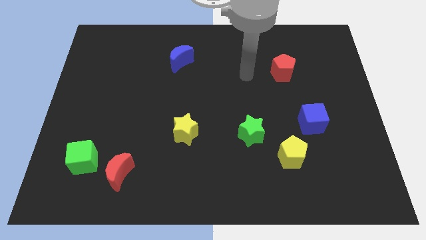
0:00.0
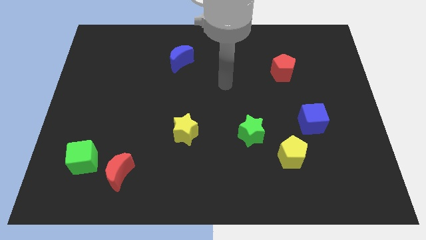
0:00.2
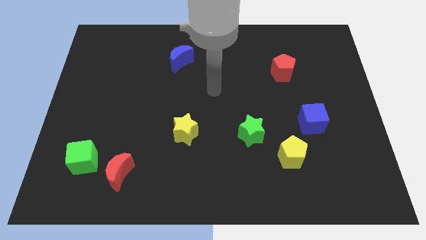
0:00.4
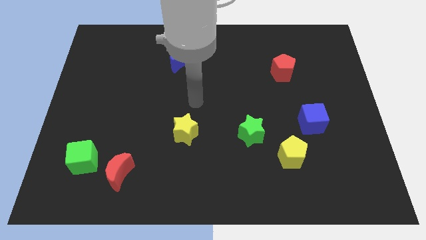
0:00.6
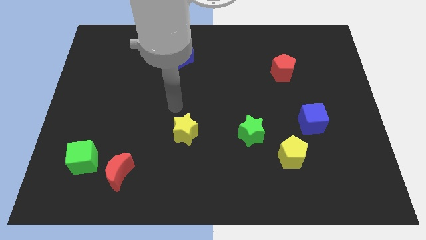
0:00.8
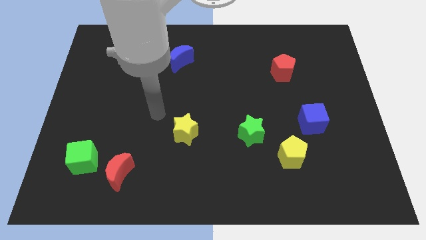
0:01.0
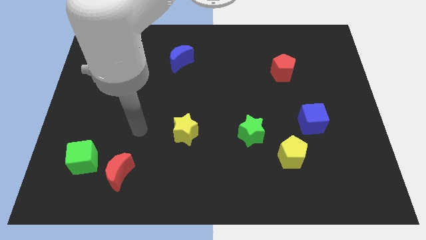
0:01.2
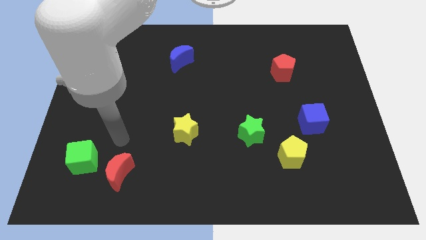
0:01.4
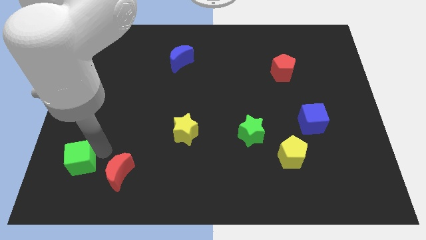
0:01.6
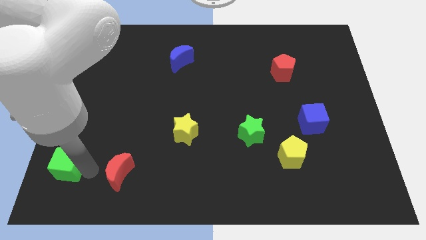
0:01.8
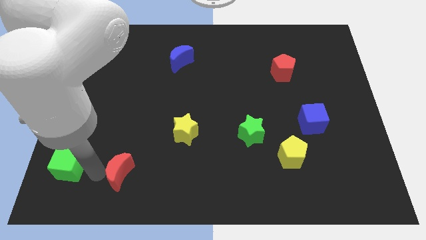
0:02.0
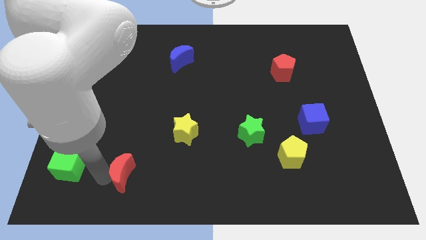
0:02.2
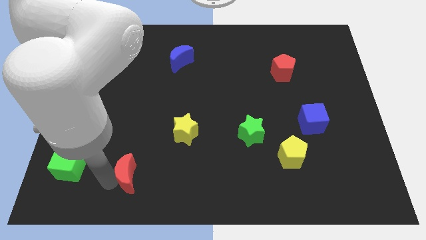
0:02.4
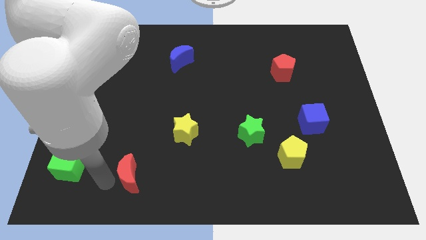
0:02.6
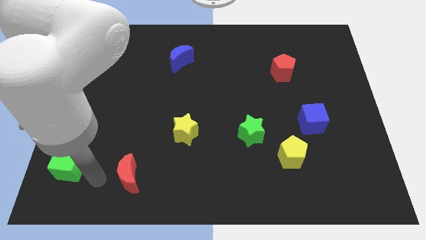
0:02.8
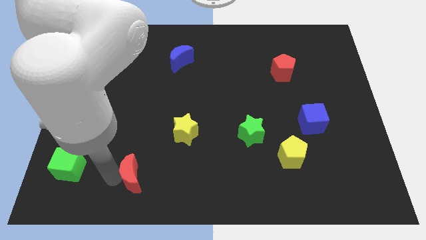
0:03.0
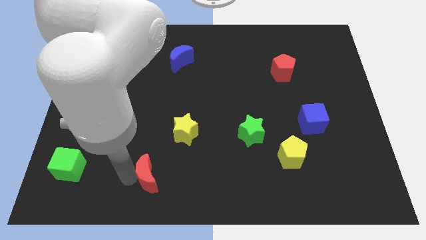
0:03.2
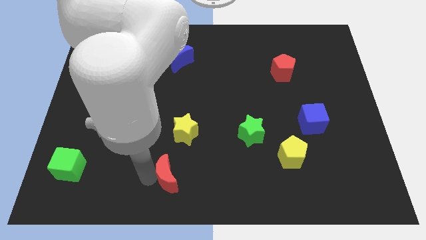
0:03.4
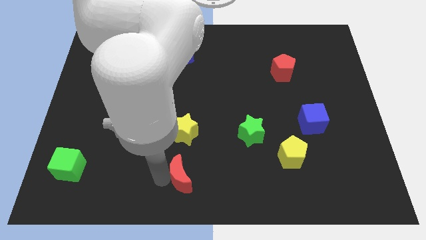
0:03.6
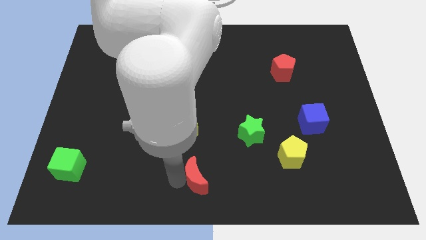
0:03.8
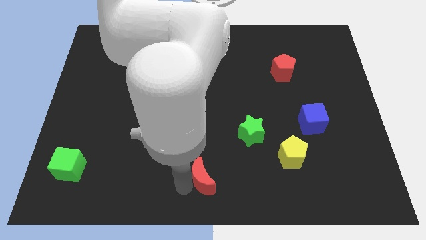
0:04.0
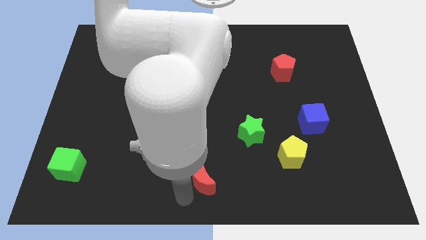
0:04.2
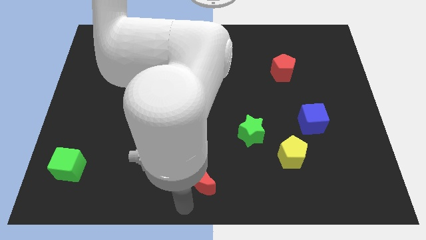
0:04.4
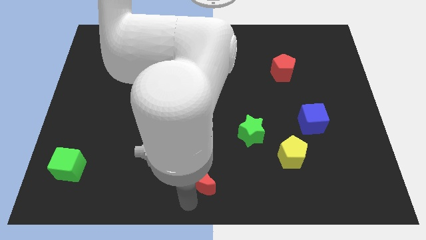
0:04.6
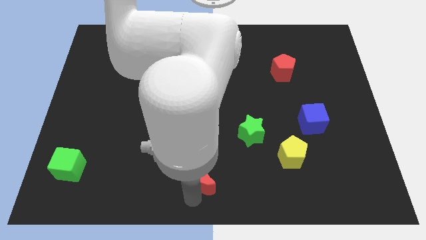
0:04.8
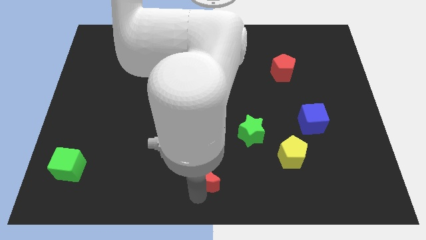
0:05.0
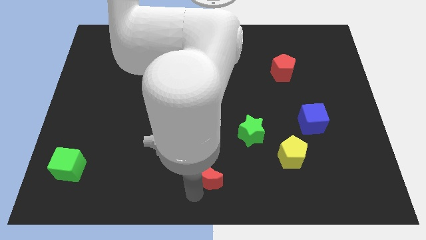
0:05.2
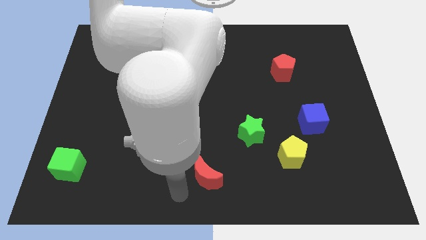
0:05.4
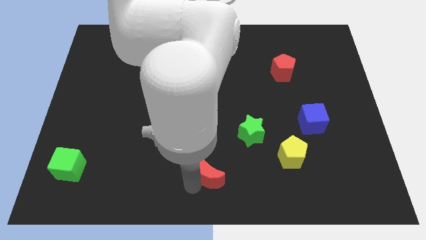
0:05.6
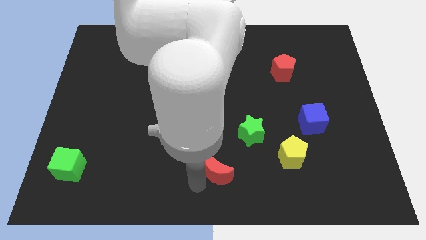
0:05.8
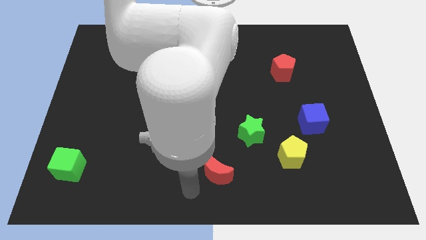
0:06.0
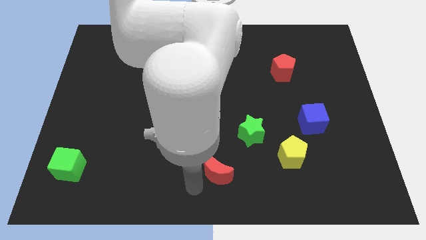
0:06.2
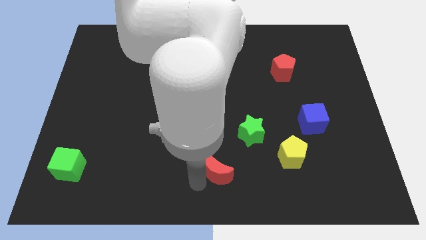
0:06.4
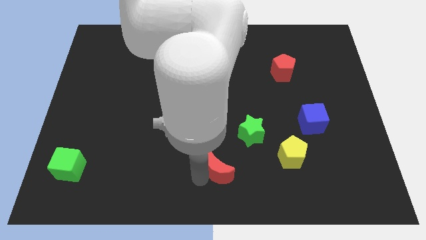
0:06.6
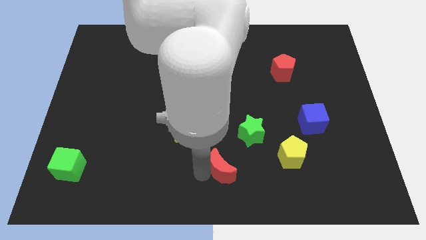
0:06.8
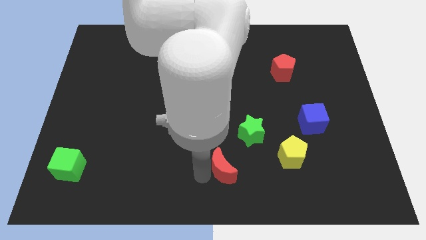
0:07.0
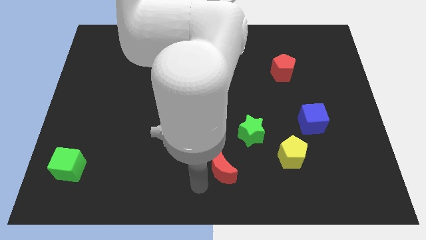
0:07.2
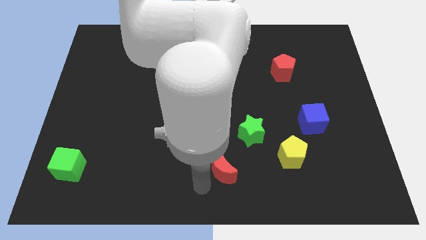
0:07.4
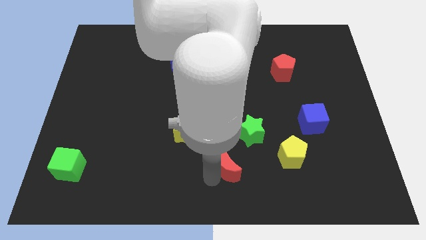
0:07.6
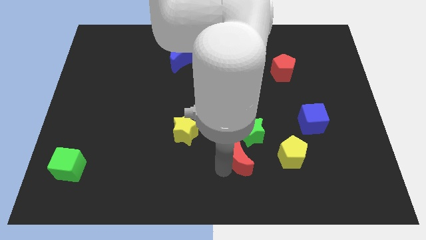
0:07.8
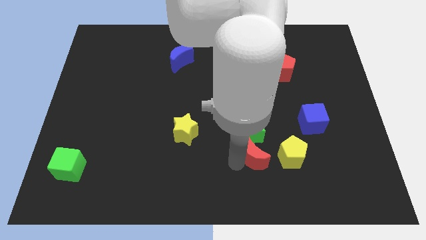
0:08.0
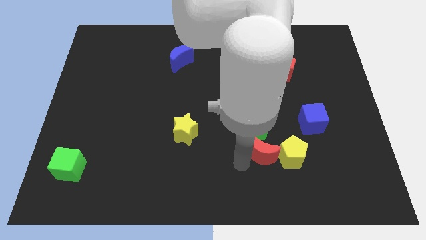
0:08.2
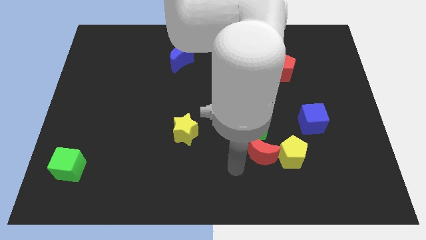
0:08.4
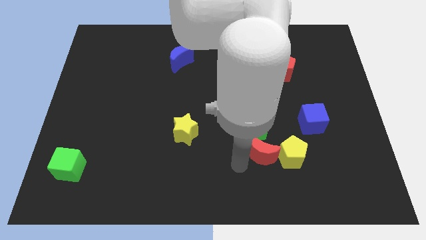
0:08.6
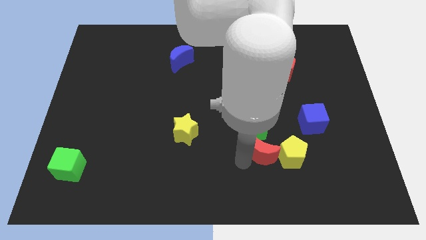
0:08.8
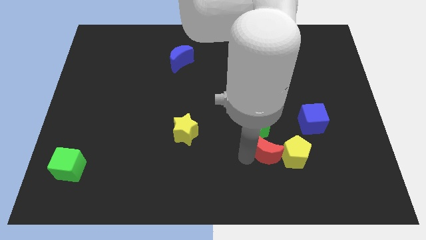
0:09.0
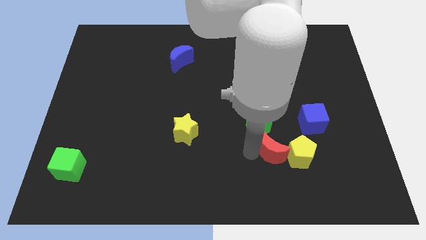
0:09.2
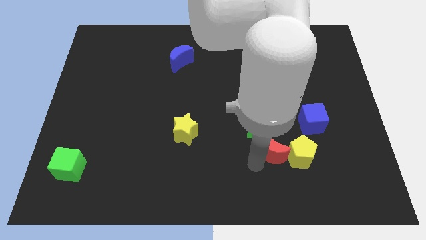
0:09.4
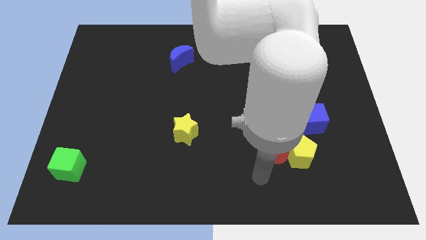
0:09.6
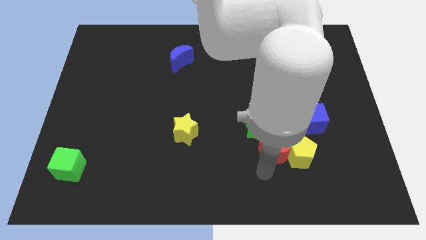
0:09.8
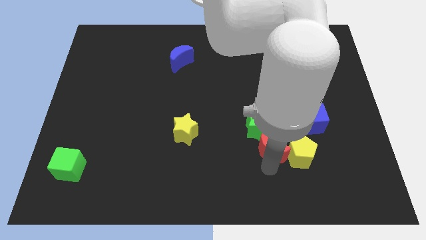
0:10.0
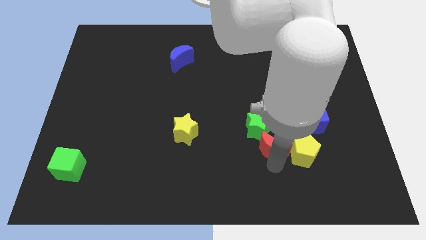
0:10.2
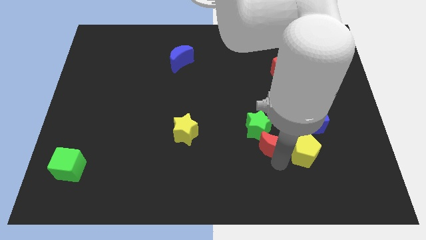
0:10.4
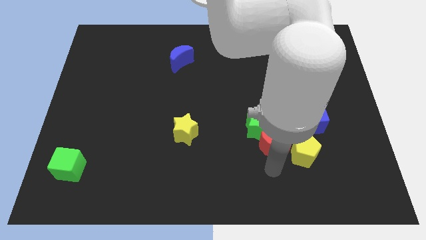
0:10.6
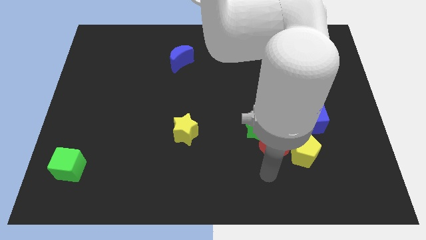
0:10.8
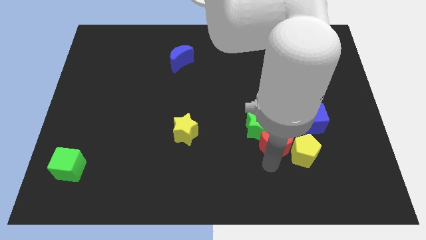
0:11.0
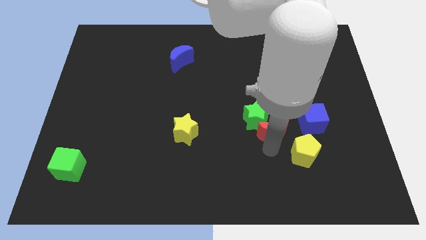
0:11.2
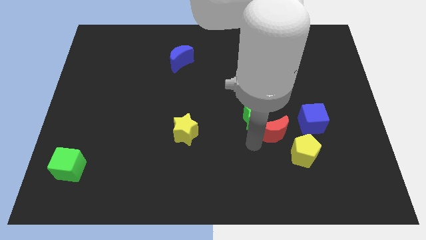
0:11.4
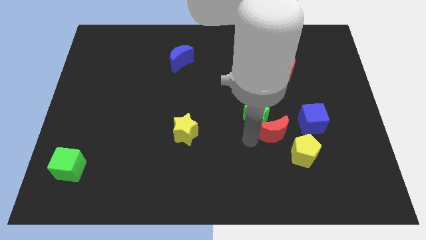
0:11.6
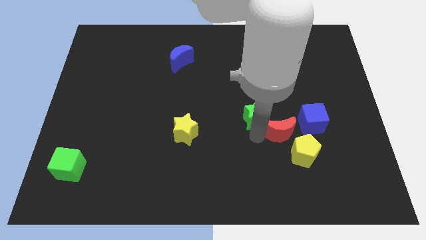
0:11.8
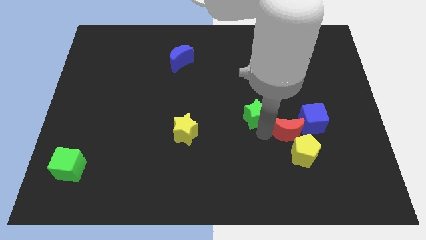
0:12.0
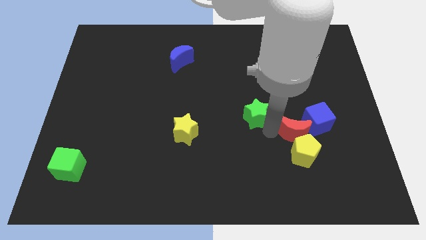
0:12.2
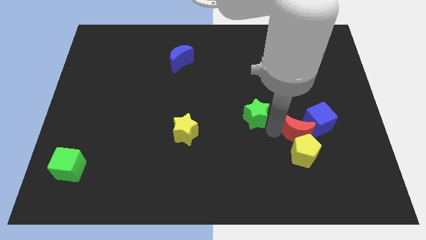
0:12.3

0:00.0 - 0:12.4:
move the red moon close to the blue cube

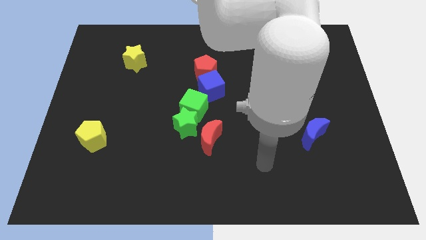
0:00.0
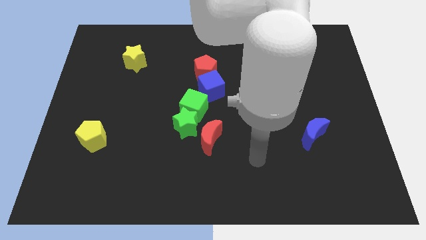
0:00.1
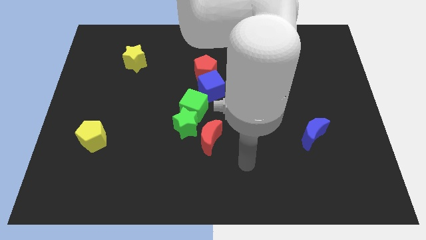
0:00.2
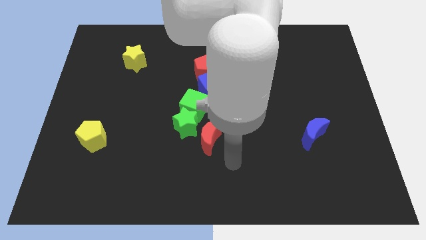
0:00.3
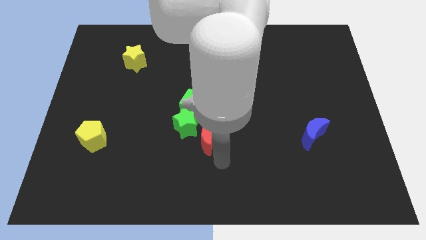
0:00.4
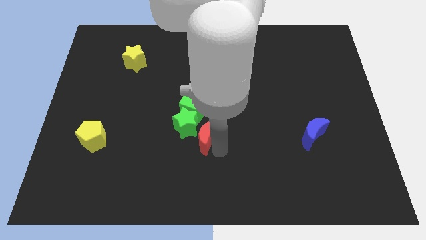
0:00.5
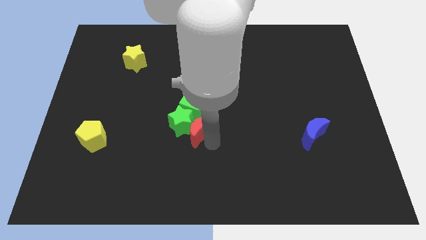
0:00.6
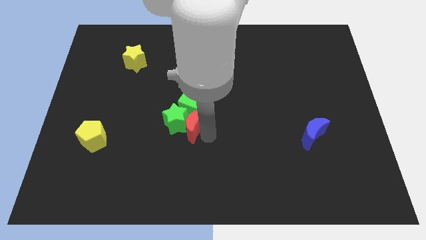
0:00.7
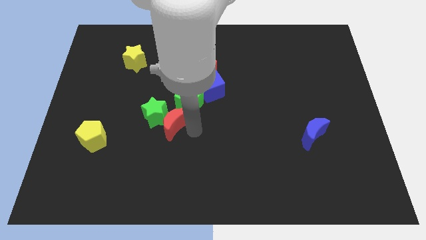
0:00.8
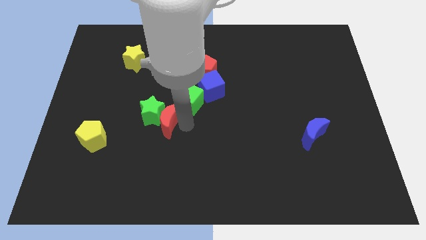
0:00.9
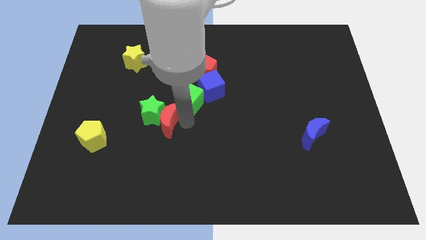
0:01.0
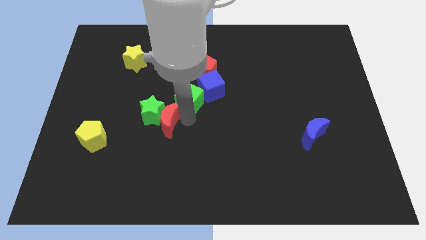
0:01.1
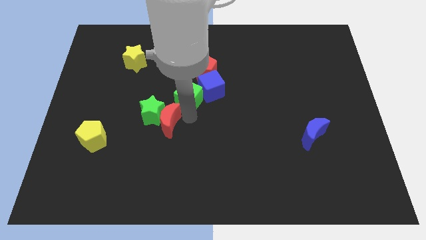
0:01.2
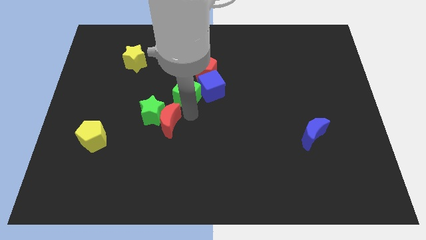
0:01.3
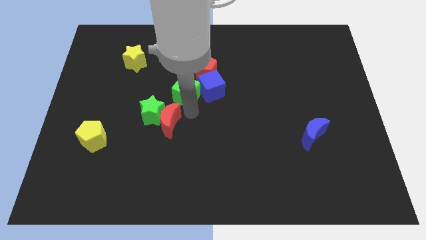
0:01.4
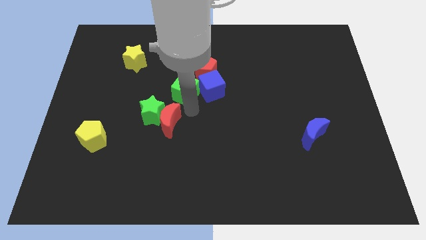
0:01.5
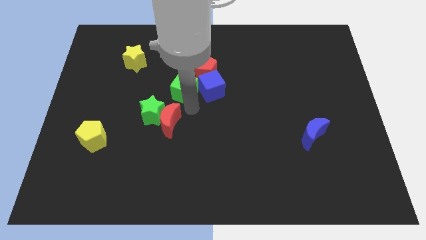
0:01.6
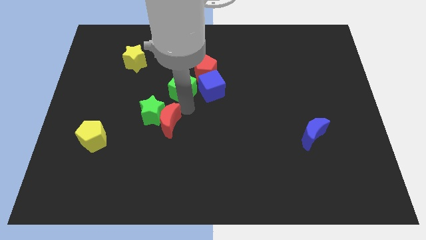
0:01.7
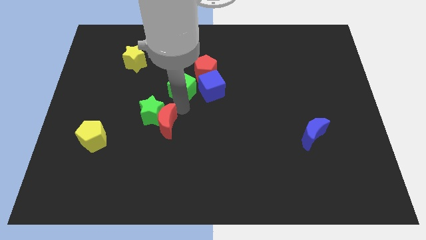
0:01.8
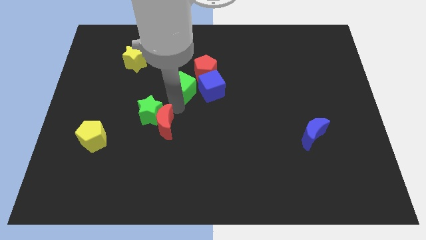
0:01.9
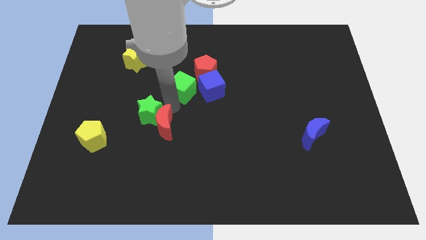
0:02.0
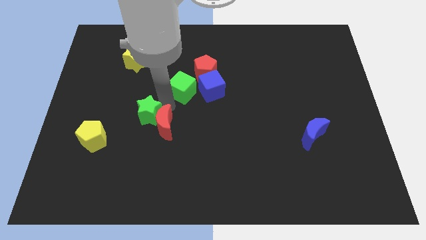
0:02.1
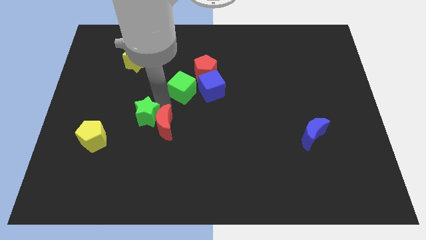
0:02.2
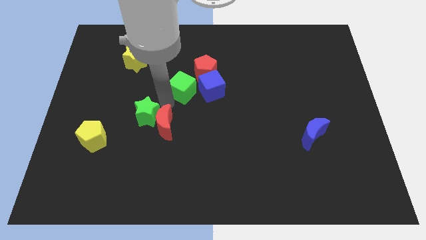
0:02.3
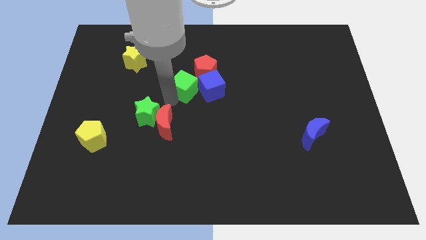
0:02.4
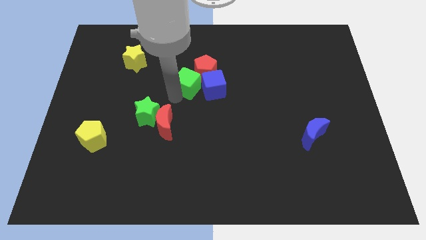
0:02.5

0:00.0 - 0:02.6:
put the green cube close to the red pentagon
